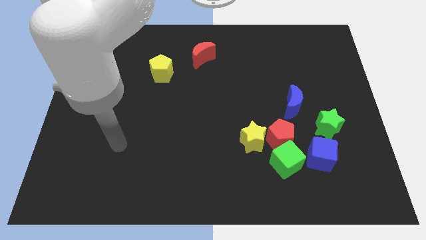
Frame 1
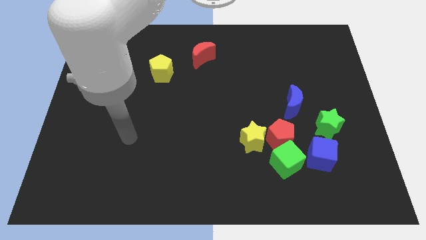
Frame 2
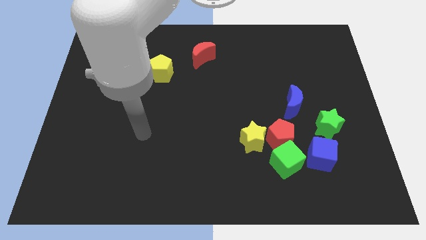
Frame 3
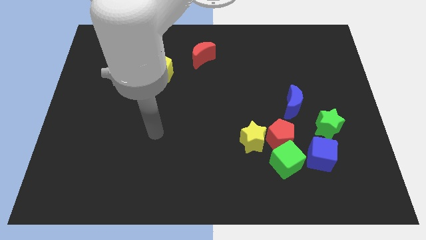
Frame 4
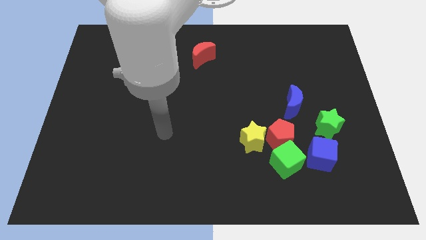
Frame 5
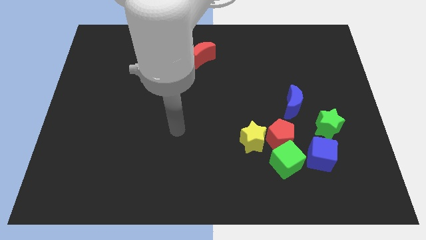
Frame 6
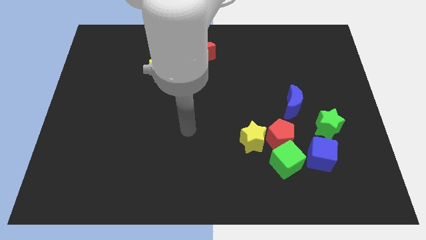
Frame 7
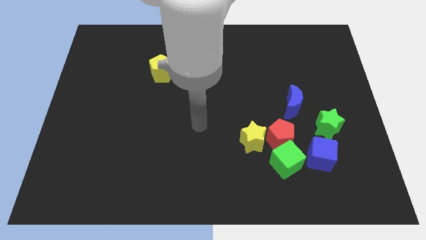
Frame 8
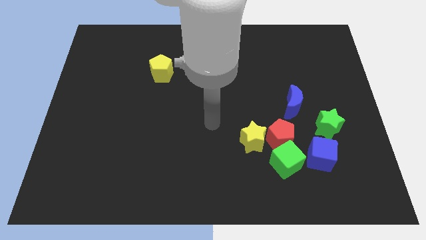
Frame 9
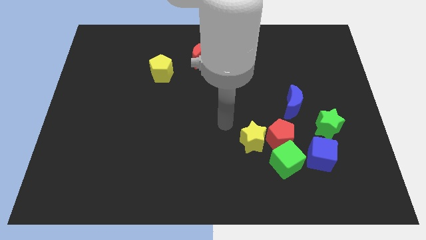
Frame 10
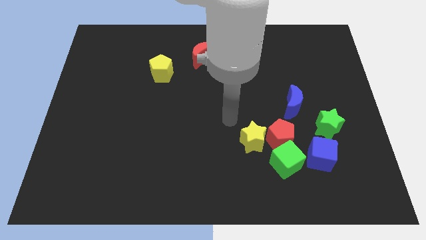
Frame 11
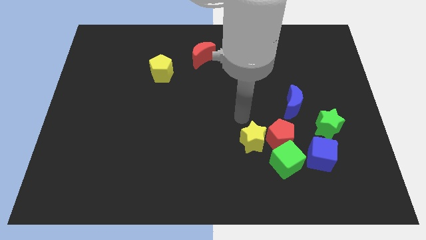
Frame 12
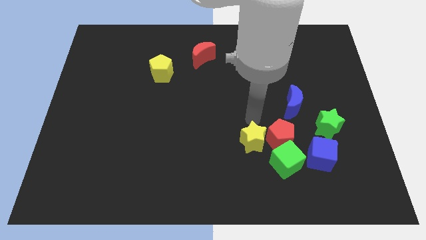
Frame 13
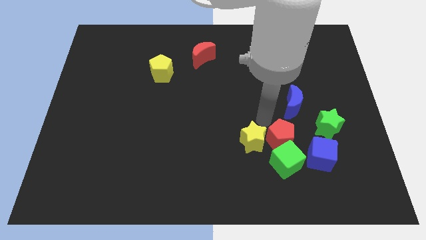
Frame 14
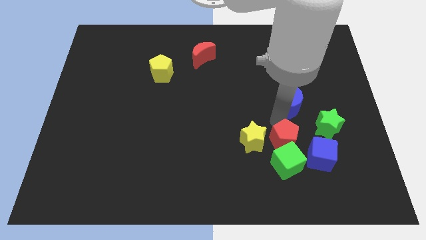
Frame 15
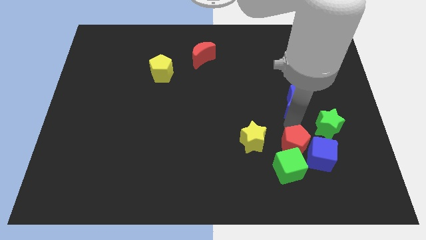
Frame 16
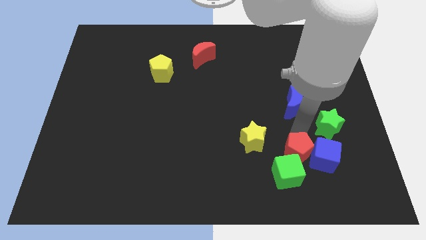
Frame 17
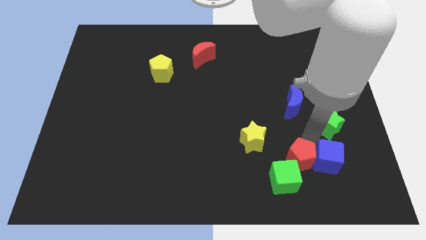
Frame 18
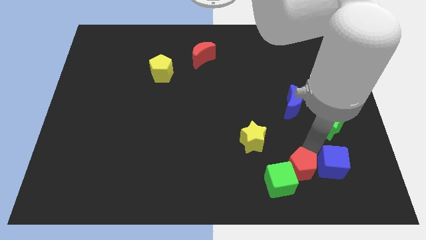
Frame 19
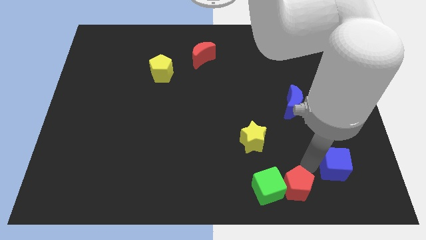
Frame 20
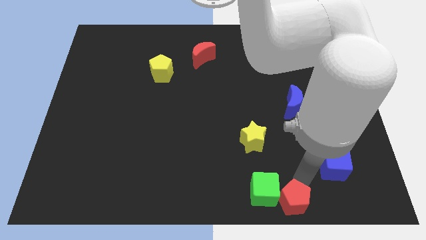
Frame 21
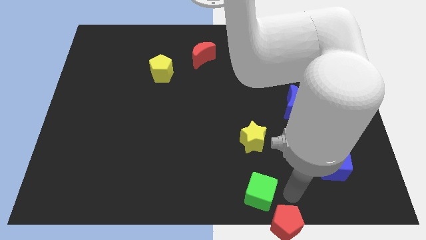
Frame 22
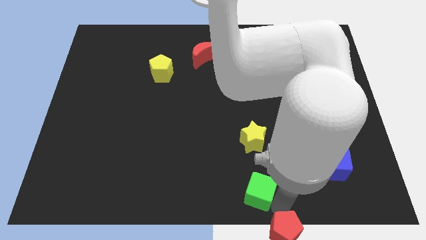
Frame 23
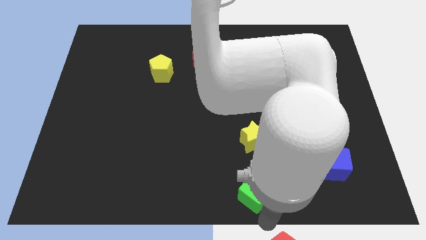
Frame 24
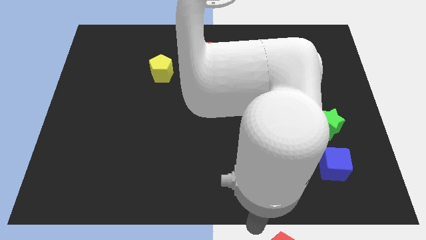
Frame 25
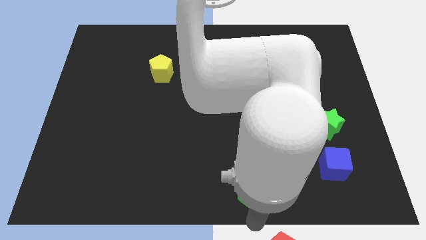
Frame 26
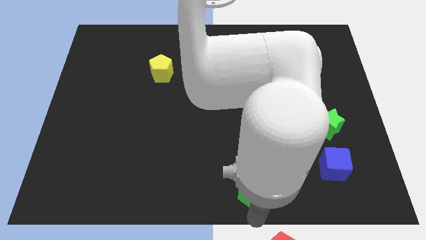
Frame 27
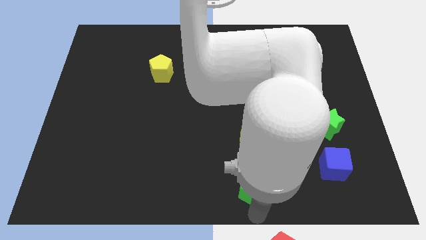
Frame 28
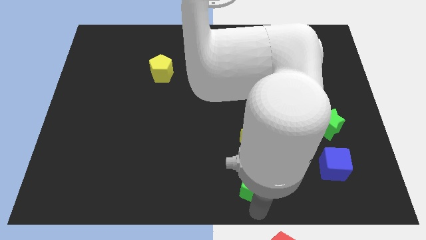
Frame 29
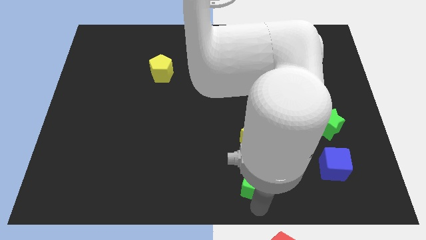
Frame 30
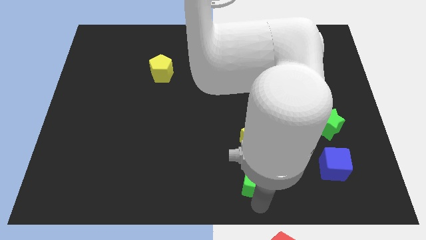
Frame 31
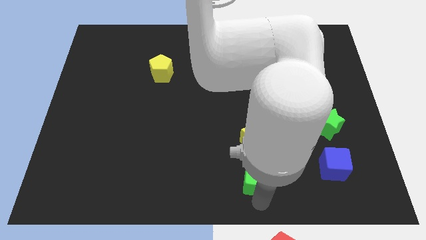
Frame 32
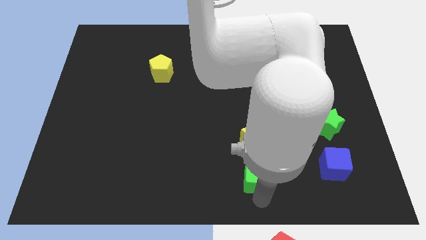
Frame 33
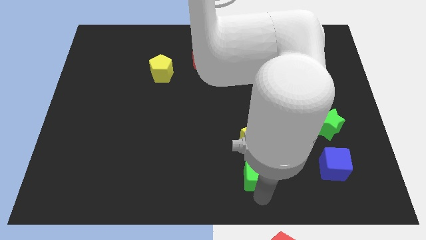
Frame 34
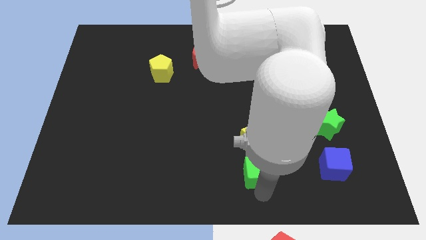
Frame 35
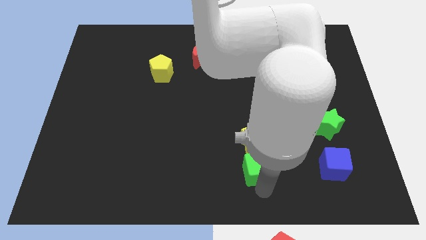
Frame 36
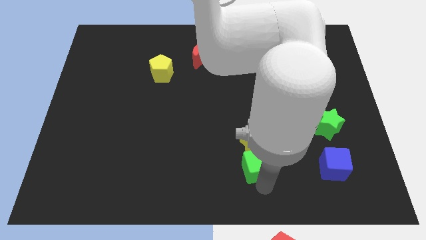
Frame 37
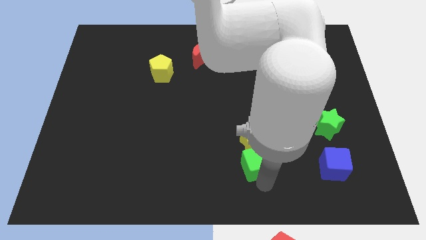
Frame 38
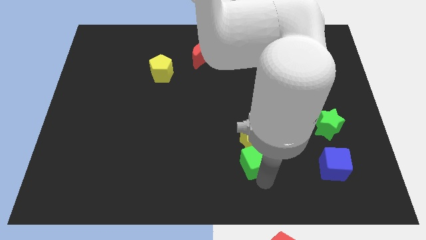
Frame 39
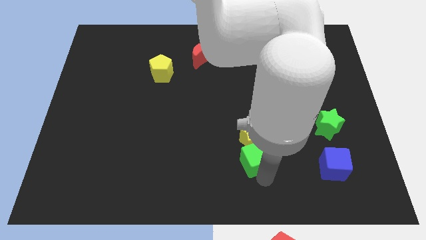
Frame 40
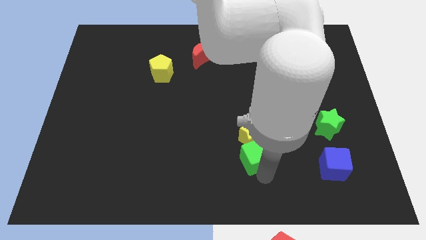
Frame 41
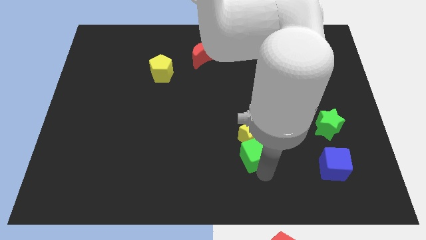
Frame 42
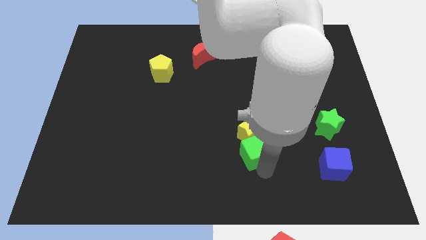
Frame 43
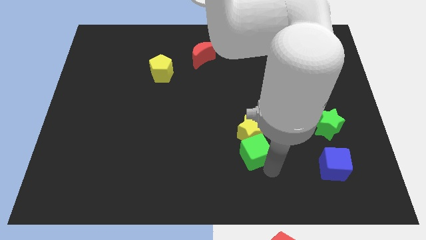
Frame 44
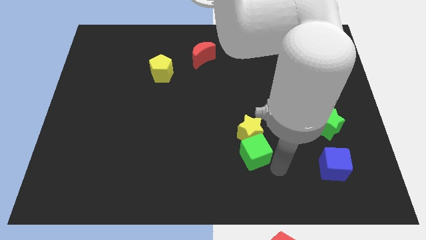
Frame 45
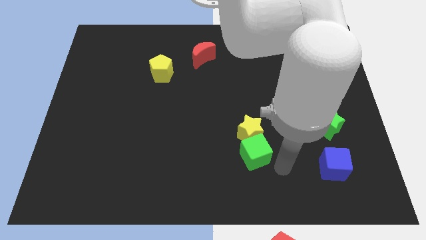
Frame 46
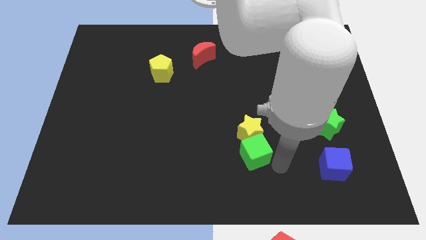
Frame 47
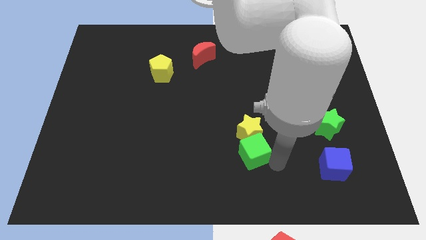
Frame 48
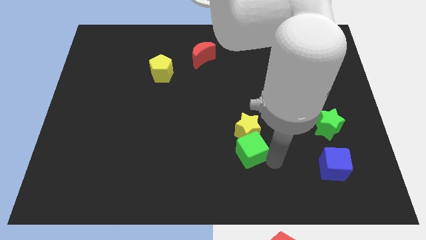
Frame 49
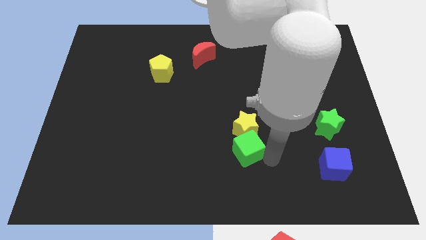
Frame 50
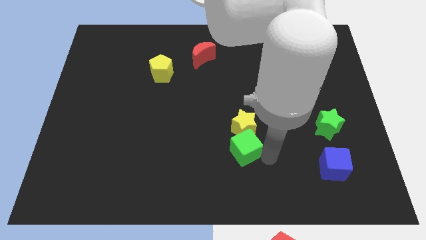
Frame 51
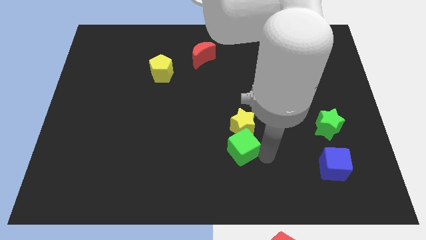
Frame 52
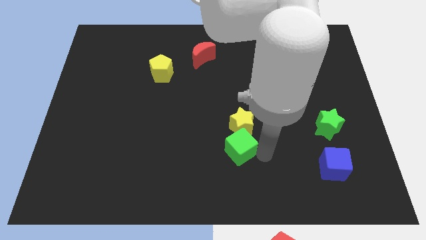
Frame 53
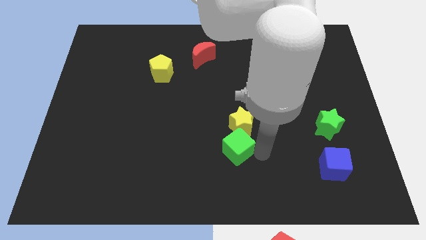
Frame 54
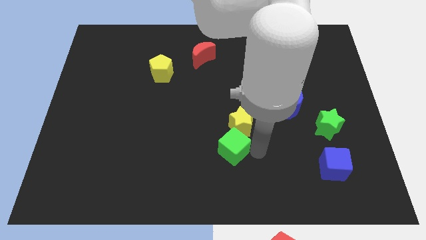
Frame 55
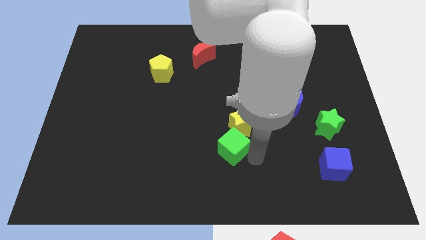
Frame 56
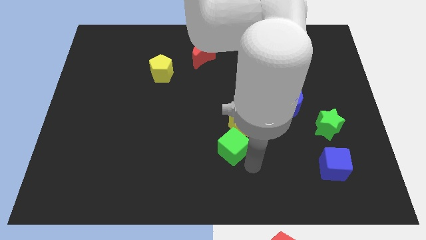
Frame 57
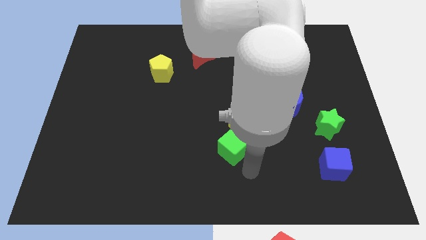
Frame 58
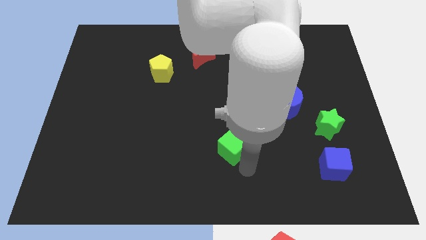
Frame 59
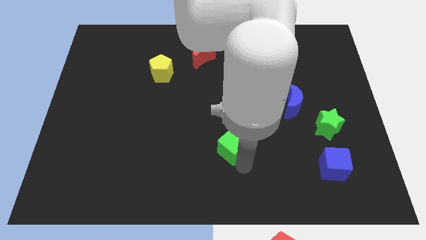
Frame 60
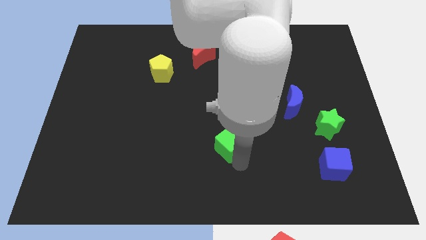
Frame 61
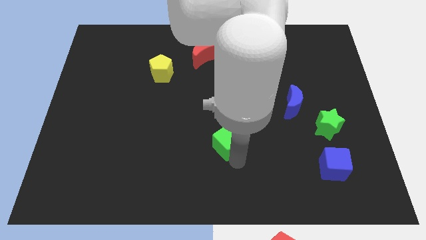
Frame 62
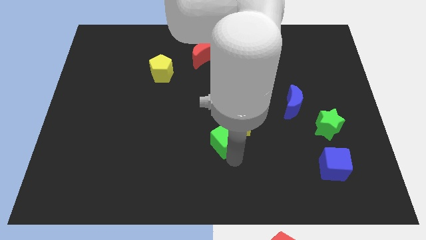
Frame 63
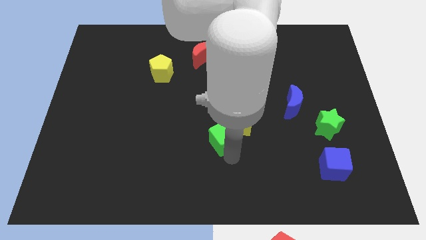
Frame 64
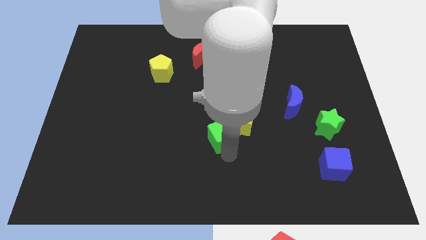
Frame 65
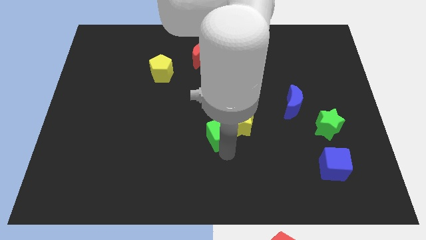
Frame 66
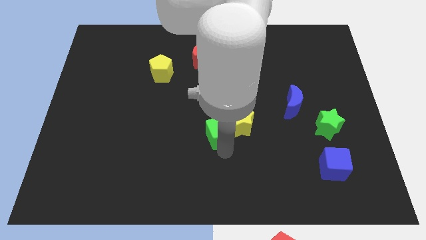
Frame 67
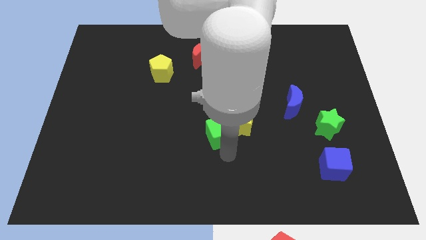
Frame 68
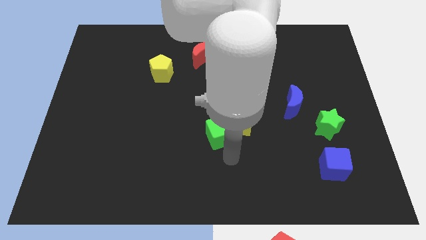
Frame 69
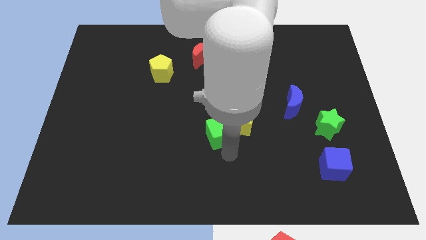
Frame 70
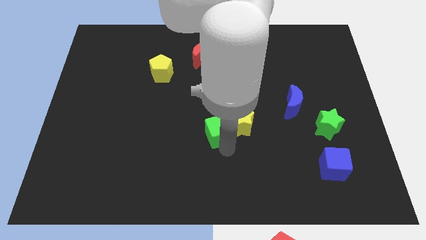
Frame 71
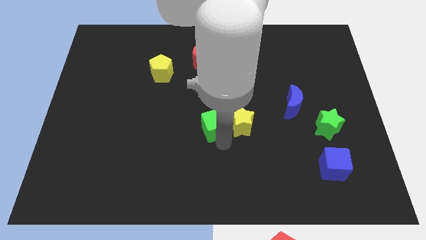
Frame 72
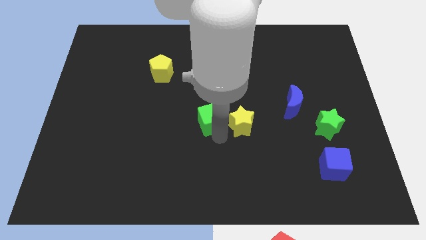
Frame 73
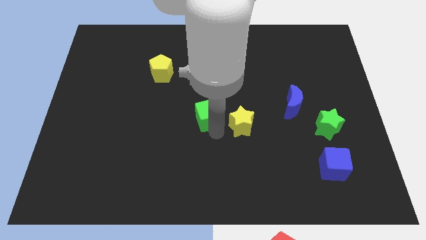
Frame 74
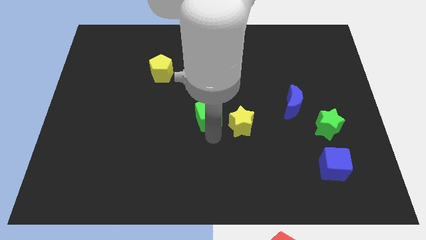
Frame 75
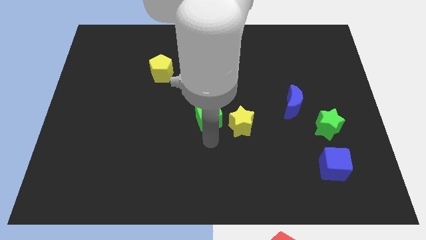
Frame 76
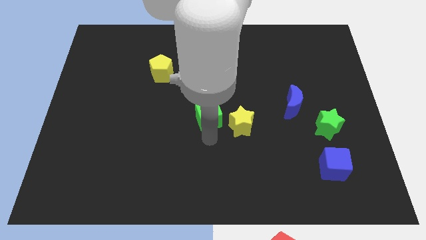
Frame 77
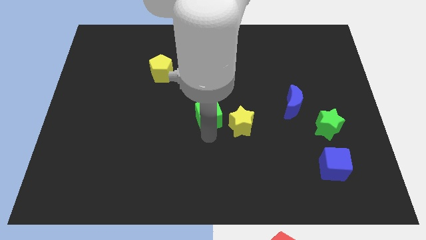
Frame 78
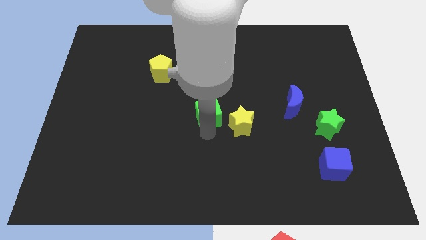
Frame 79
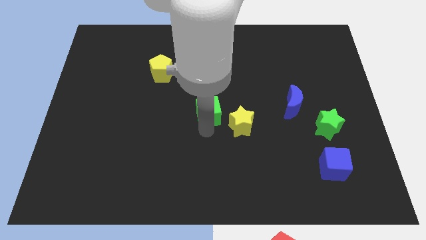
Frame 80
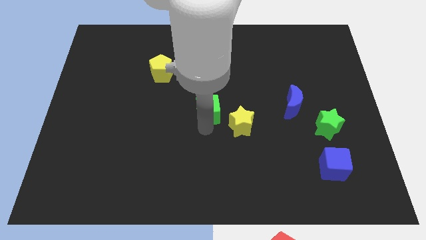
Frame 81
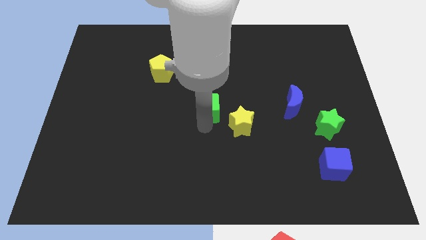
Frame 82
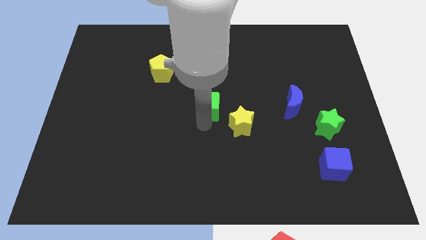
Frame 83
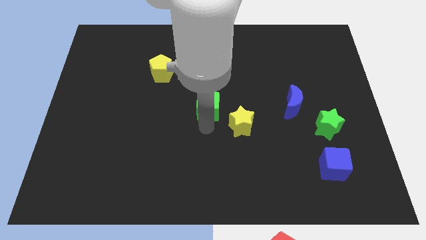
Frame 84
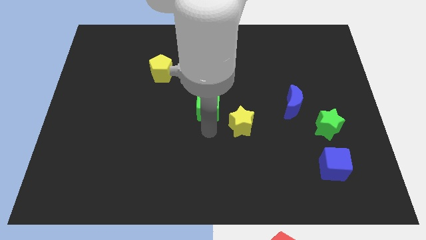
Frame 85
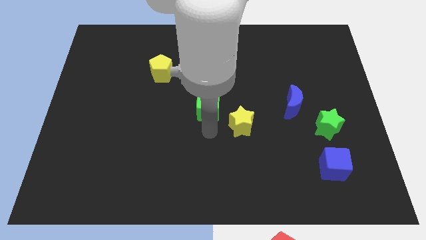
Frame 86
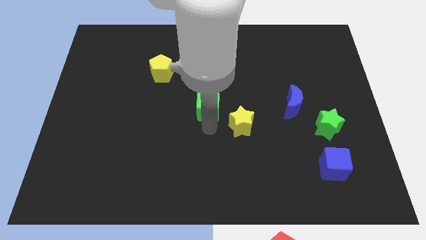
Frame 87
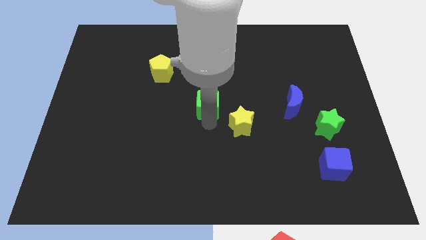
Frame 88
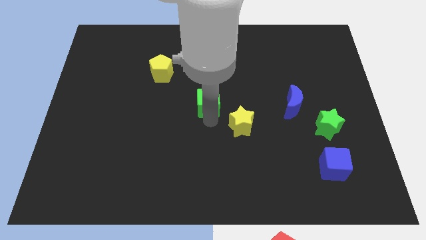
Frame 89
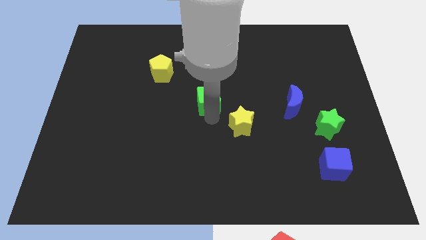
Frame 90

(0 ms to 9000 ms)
slide the green cube below the red moon
